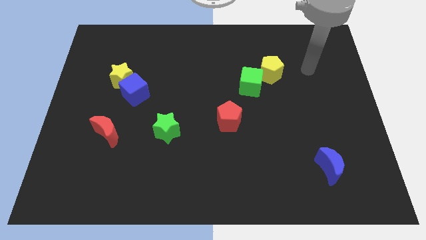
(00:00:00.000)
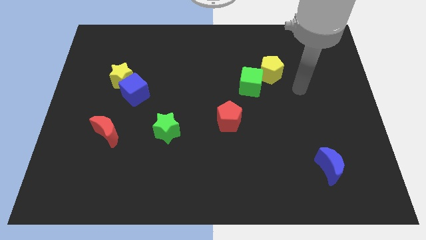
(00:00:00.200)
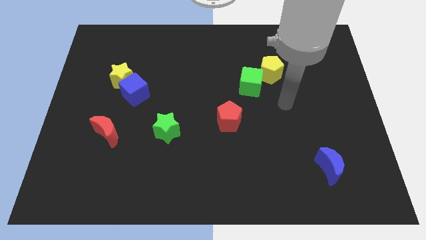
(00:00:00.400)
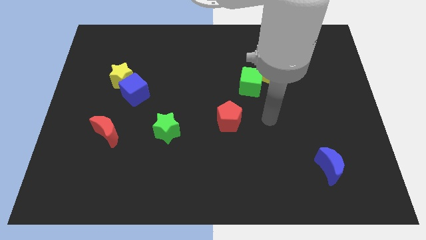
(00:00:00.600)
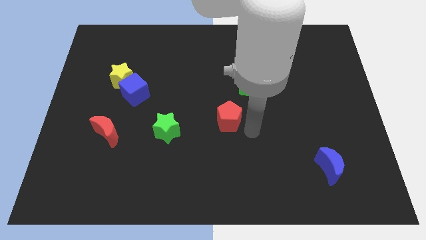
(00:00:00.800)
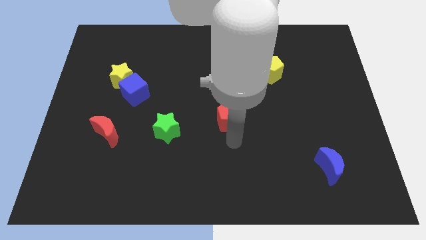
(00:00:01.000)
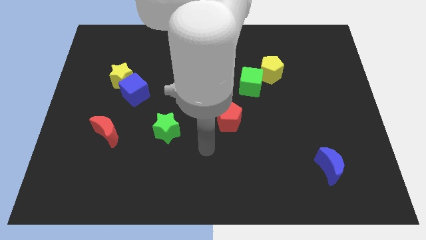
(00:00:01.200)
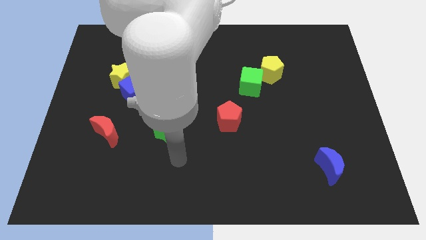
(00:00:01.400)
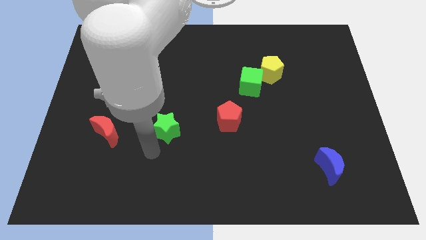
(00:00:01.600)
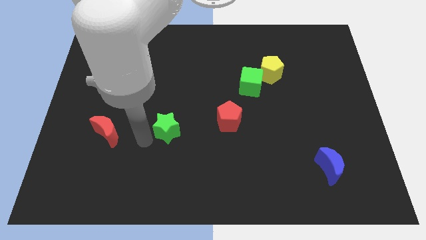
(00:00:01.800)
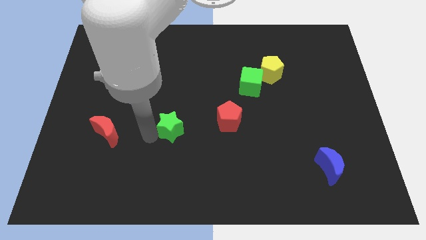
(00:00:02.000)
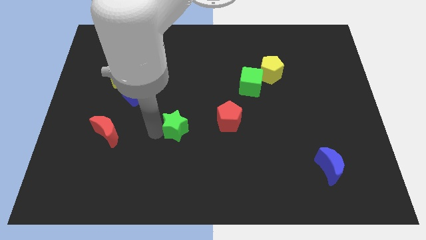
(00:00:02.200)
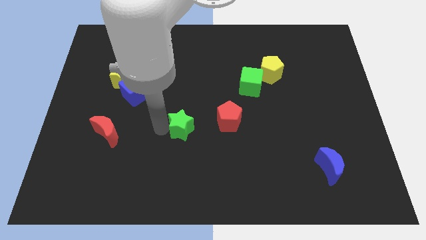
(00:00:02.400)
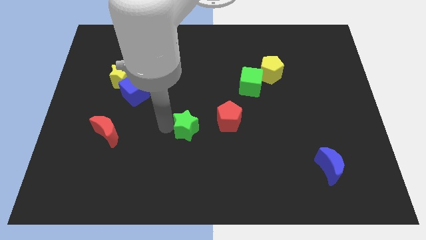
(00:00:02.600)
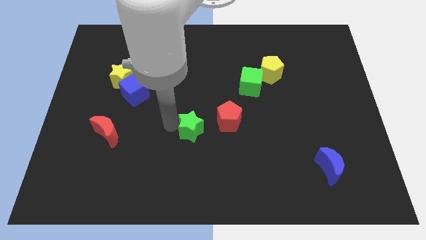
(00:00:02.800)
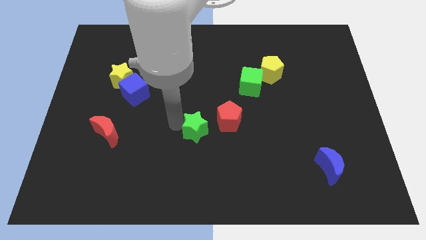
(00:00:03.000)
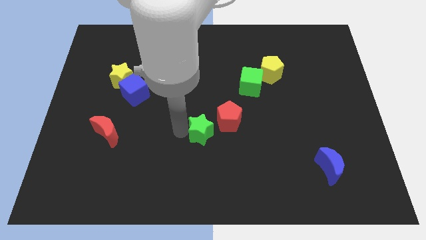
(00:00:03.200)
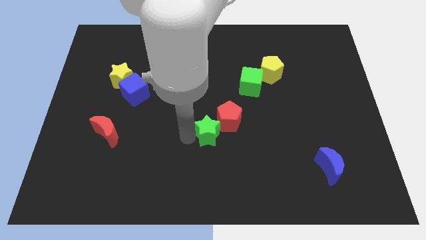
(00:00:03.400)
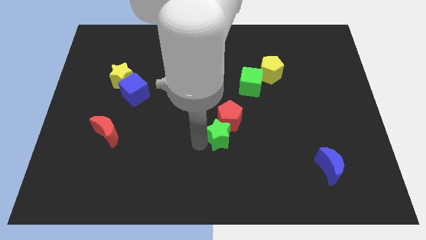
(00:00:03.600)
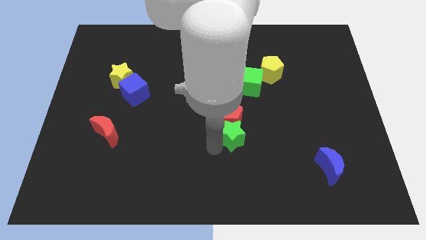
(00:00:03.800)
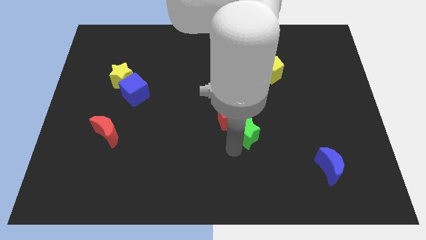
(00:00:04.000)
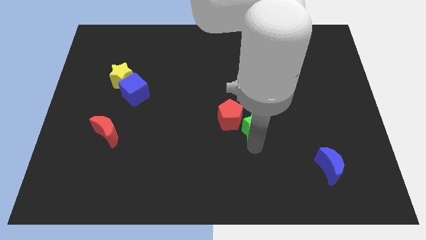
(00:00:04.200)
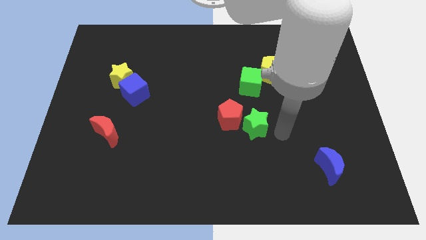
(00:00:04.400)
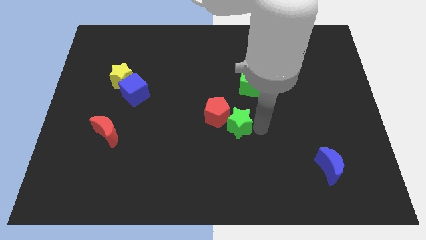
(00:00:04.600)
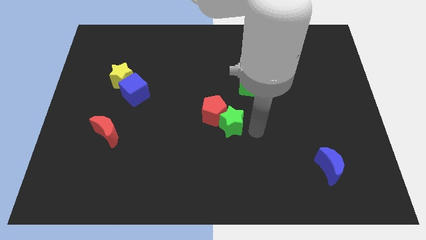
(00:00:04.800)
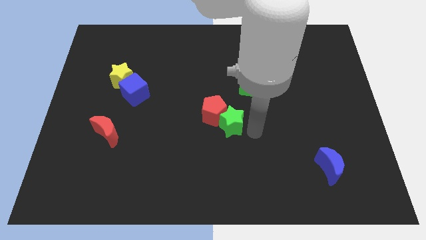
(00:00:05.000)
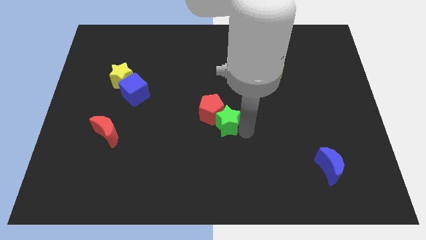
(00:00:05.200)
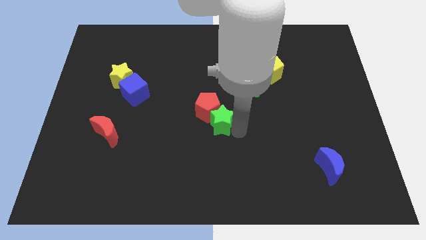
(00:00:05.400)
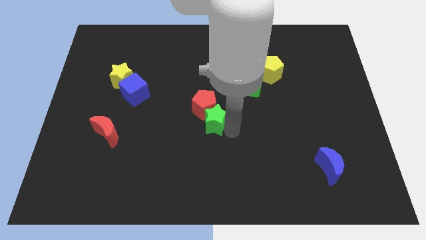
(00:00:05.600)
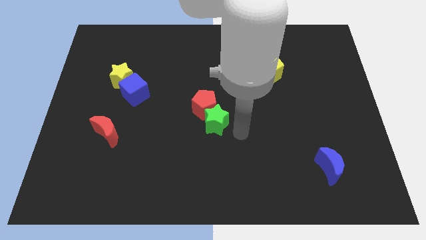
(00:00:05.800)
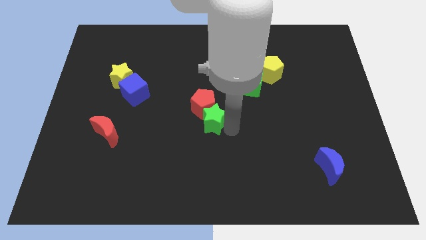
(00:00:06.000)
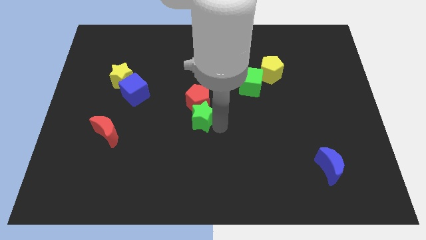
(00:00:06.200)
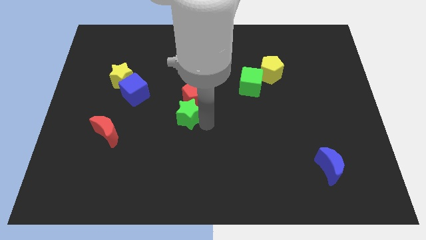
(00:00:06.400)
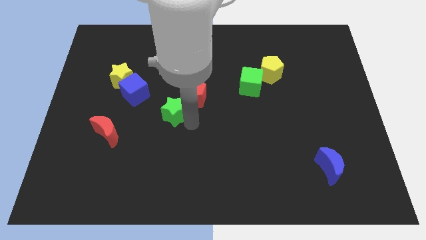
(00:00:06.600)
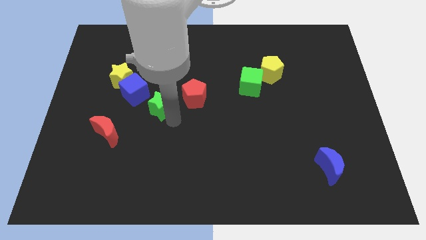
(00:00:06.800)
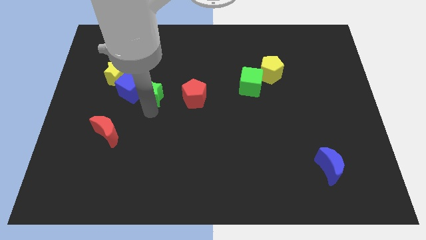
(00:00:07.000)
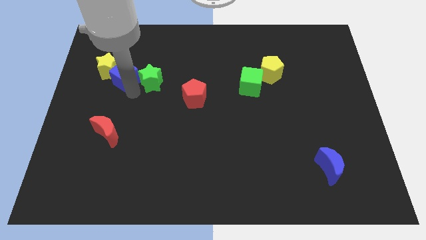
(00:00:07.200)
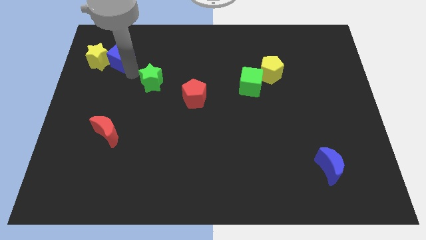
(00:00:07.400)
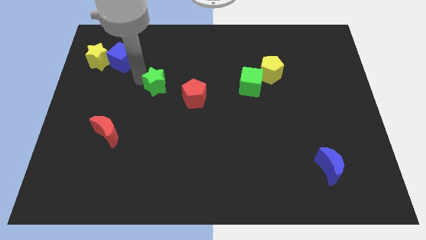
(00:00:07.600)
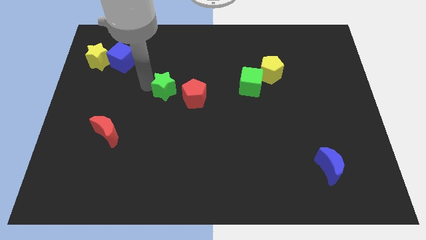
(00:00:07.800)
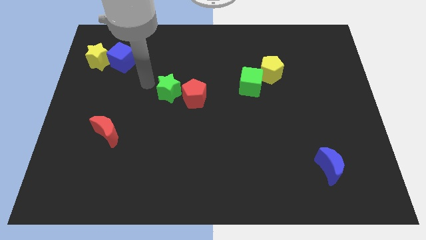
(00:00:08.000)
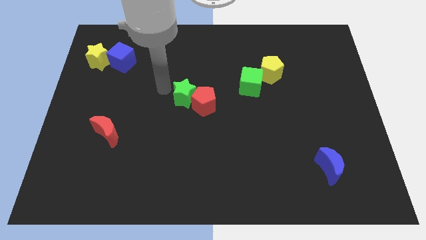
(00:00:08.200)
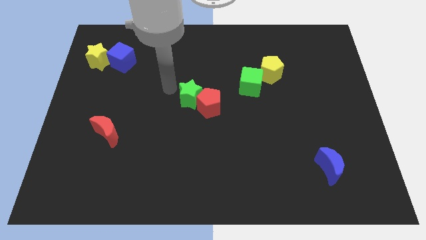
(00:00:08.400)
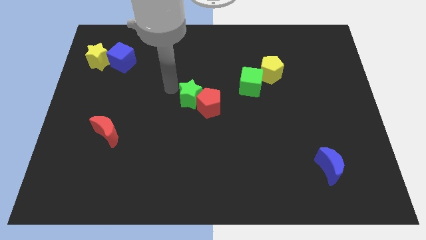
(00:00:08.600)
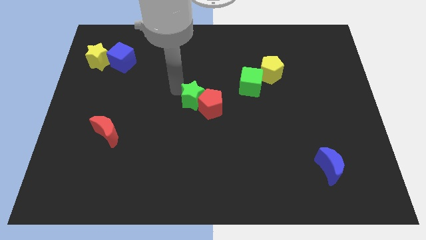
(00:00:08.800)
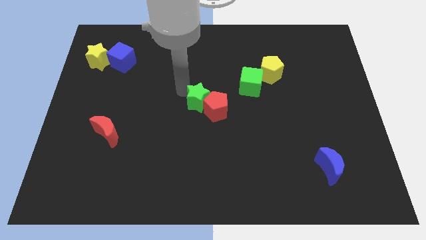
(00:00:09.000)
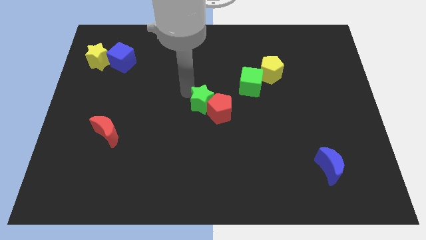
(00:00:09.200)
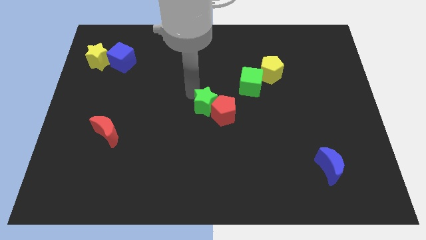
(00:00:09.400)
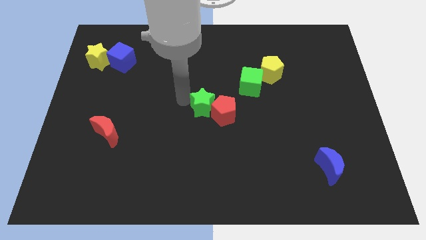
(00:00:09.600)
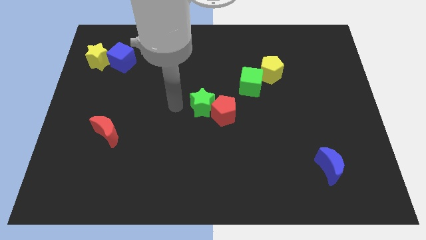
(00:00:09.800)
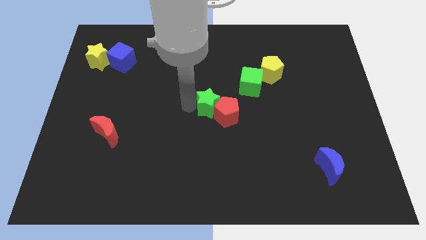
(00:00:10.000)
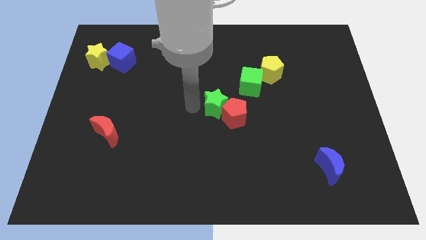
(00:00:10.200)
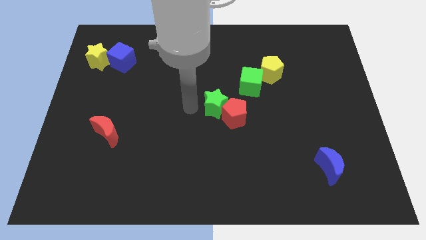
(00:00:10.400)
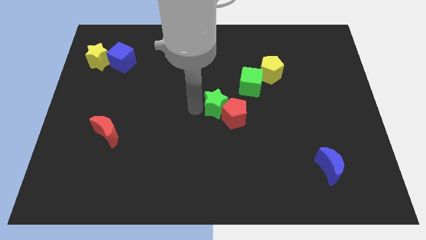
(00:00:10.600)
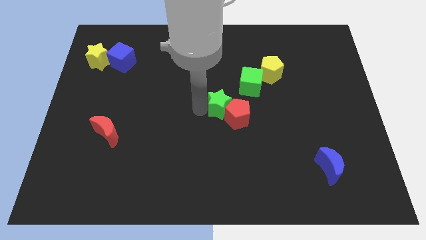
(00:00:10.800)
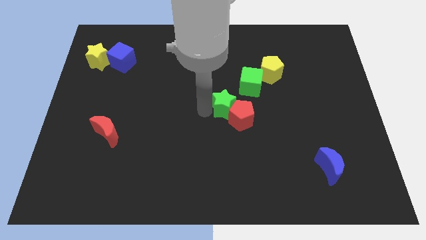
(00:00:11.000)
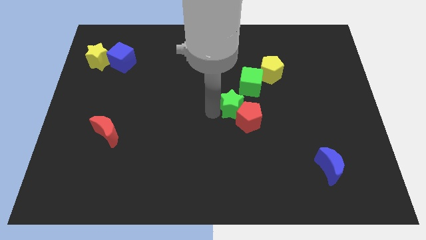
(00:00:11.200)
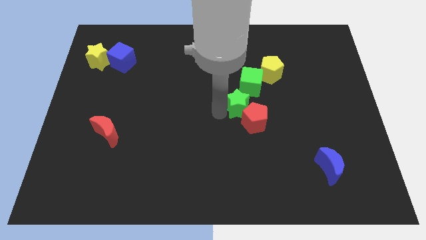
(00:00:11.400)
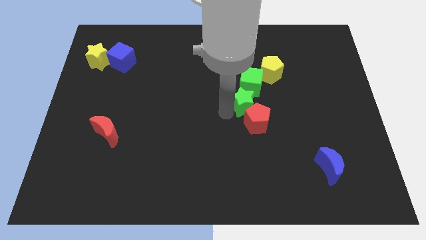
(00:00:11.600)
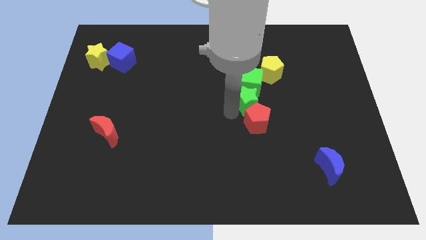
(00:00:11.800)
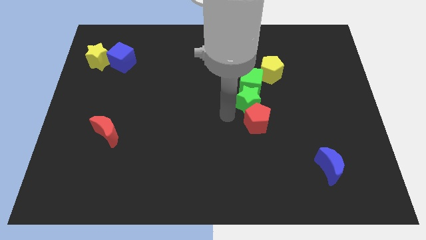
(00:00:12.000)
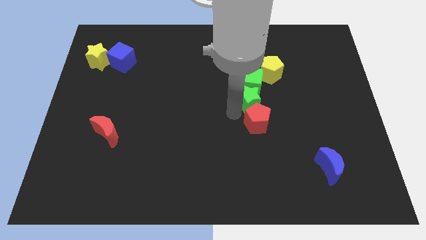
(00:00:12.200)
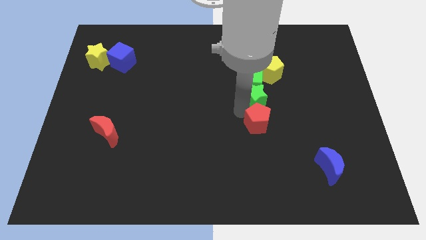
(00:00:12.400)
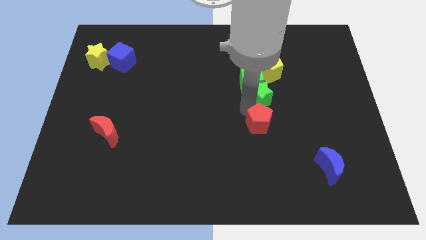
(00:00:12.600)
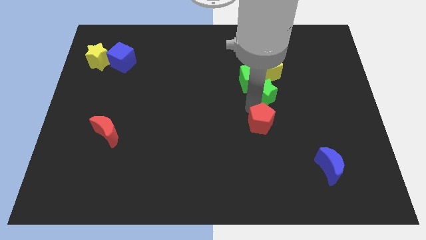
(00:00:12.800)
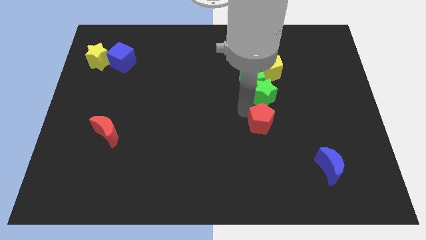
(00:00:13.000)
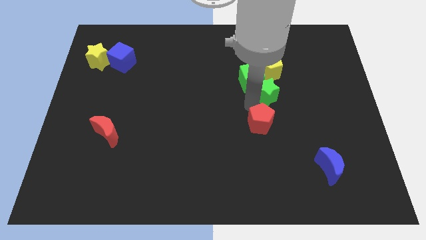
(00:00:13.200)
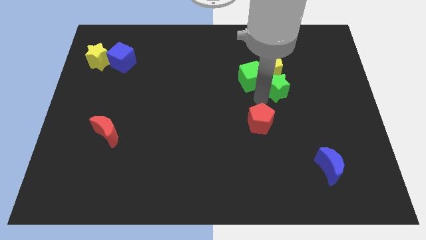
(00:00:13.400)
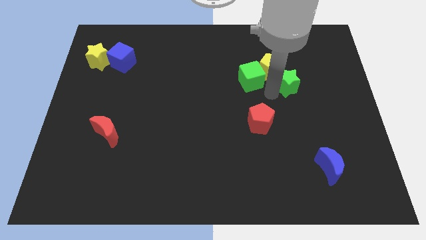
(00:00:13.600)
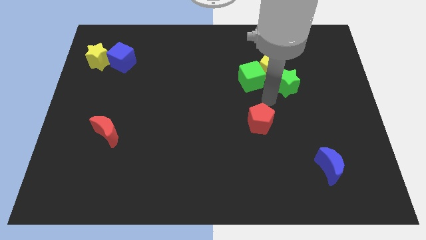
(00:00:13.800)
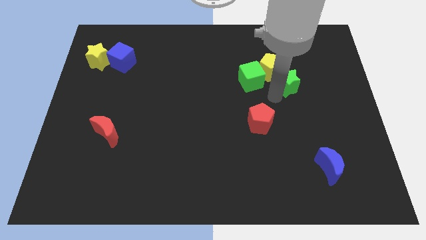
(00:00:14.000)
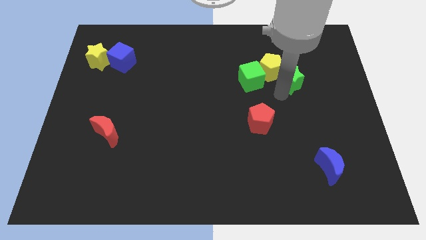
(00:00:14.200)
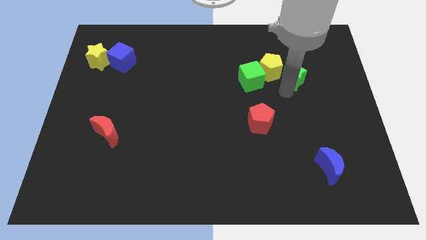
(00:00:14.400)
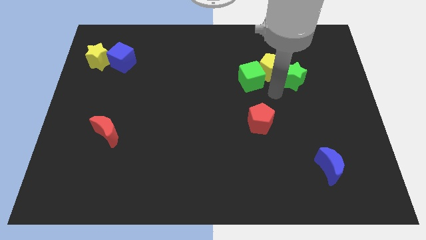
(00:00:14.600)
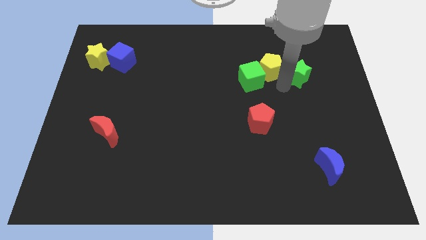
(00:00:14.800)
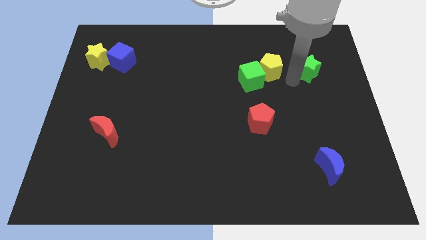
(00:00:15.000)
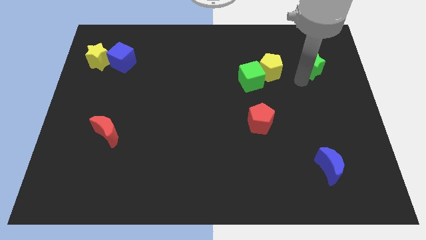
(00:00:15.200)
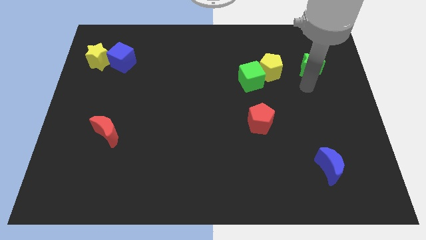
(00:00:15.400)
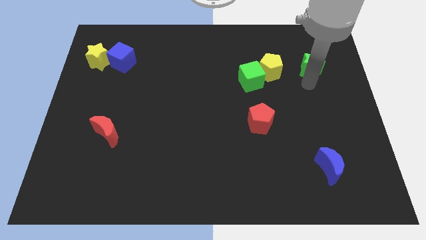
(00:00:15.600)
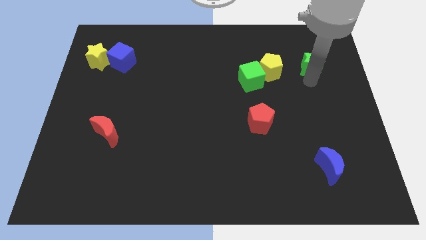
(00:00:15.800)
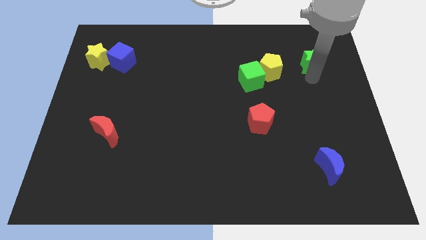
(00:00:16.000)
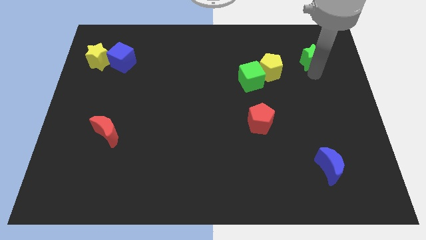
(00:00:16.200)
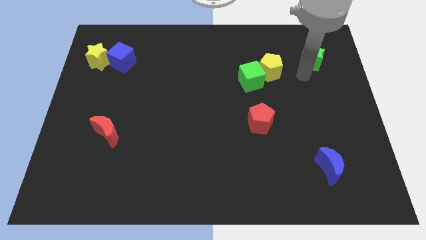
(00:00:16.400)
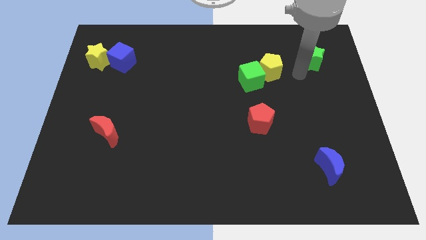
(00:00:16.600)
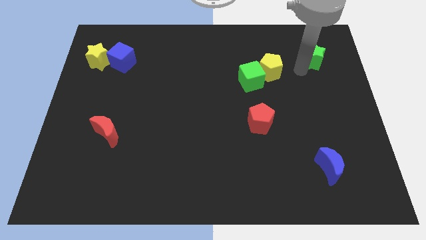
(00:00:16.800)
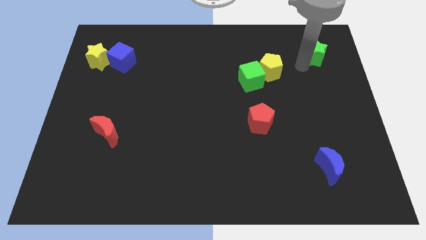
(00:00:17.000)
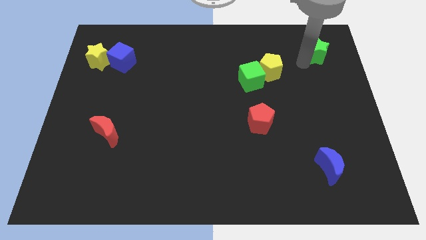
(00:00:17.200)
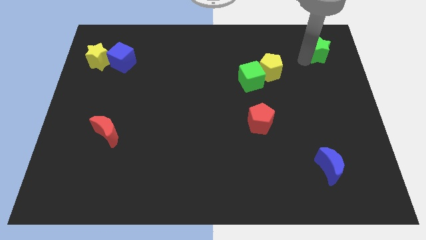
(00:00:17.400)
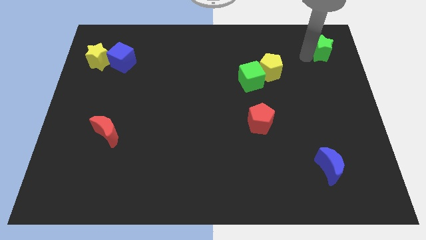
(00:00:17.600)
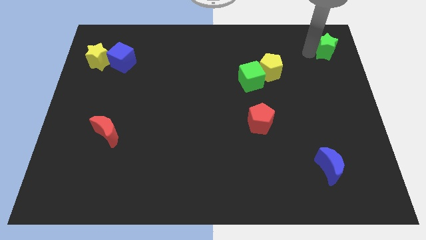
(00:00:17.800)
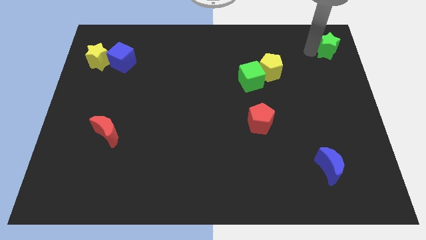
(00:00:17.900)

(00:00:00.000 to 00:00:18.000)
push the green star to the top right of the board
